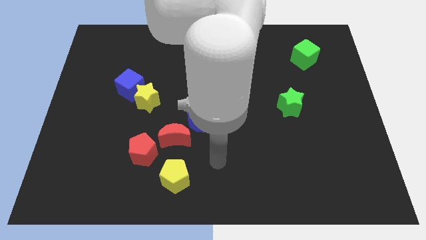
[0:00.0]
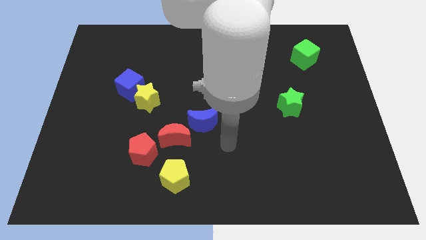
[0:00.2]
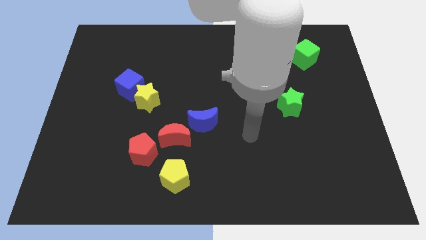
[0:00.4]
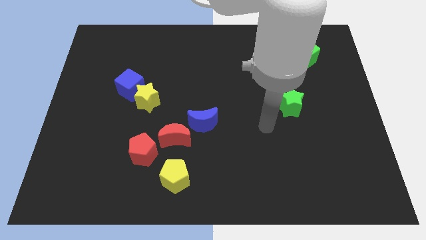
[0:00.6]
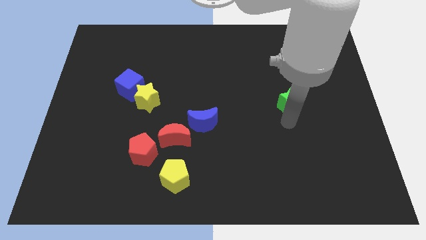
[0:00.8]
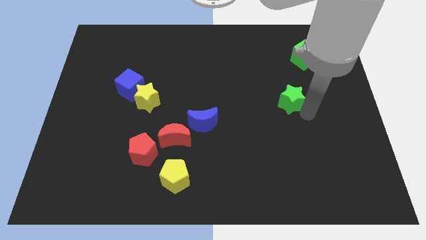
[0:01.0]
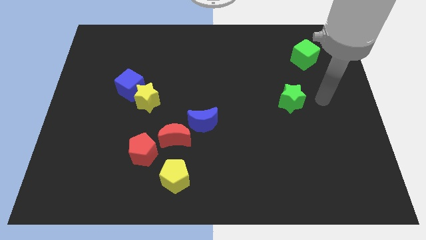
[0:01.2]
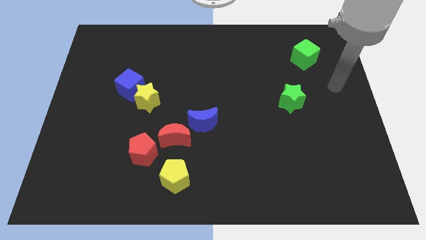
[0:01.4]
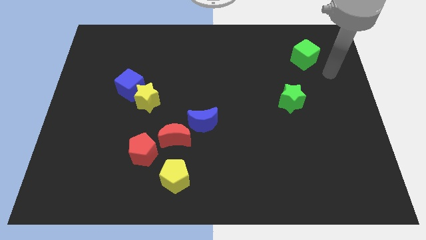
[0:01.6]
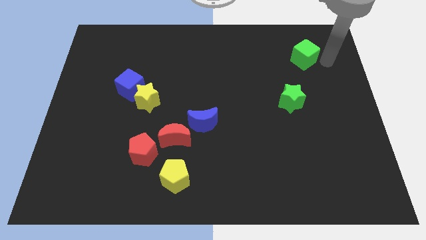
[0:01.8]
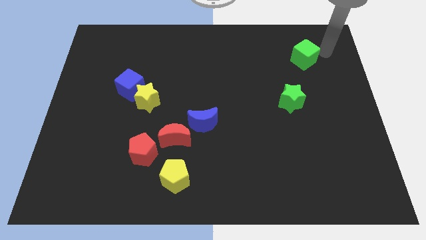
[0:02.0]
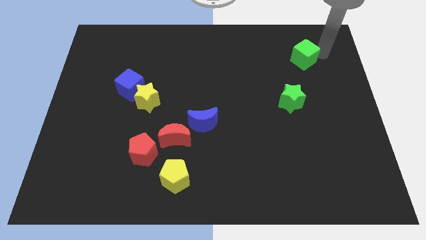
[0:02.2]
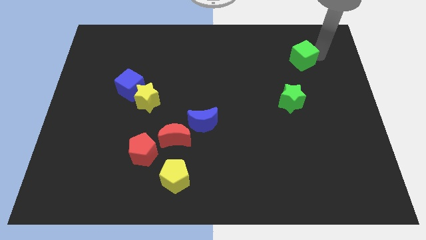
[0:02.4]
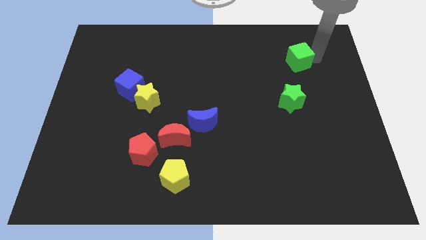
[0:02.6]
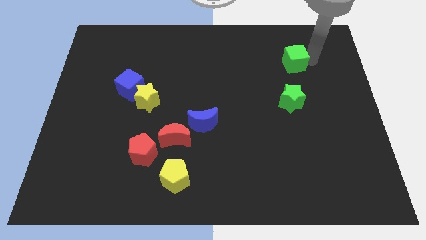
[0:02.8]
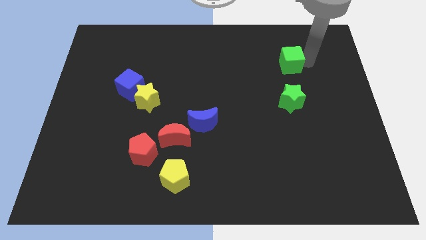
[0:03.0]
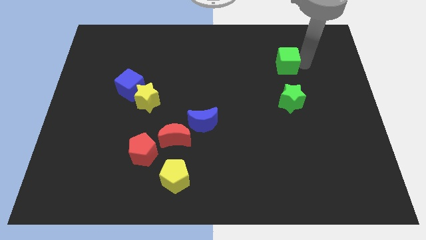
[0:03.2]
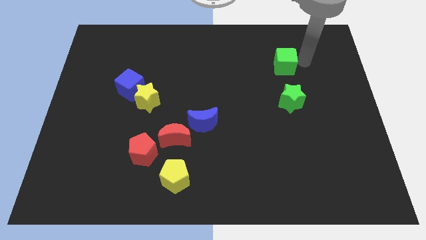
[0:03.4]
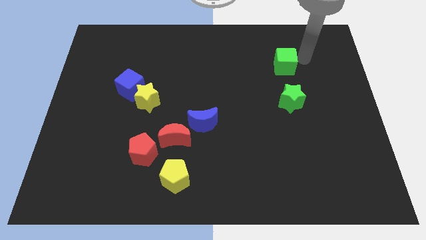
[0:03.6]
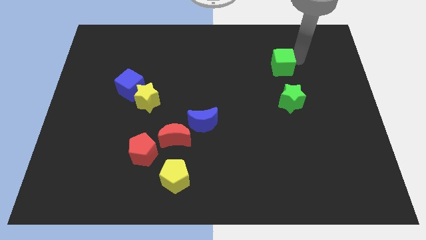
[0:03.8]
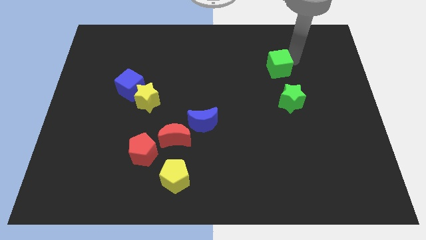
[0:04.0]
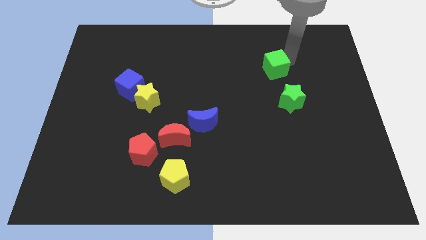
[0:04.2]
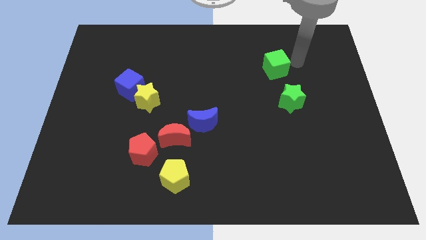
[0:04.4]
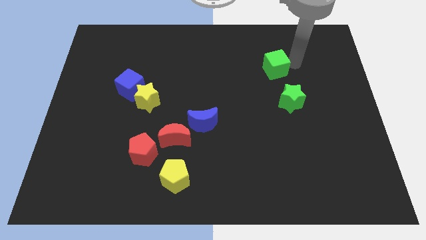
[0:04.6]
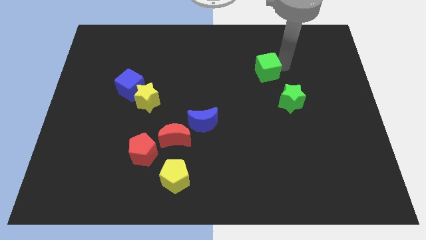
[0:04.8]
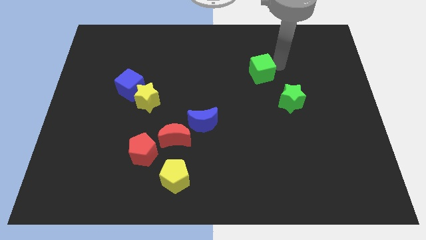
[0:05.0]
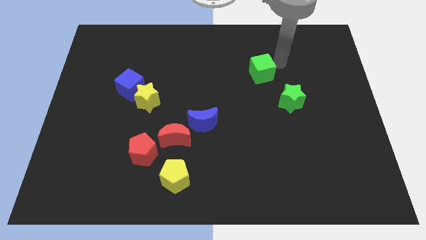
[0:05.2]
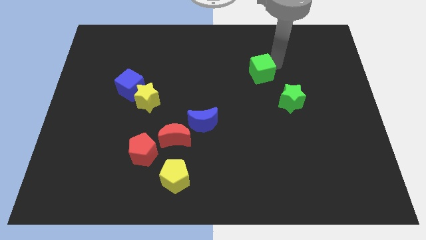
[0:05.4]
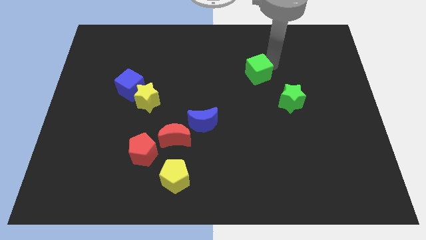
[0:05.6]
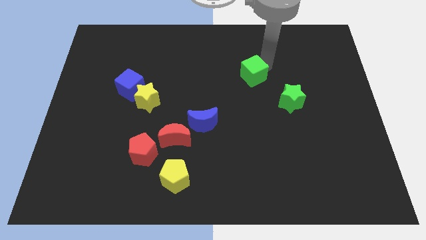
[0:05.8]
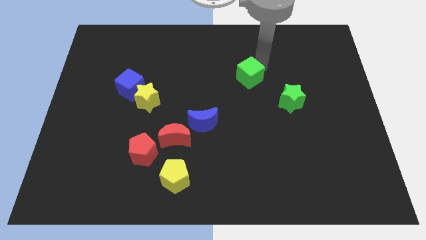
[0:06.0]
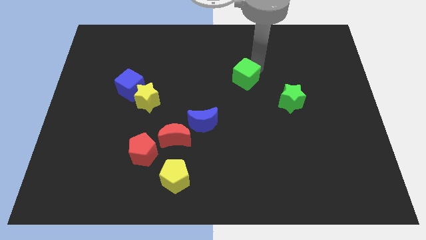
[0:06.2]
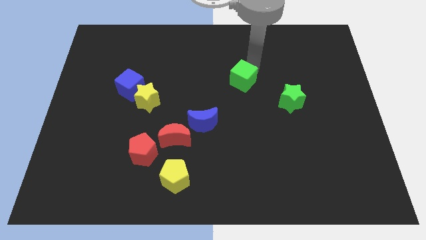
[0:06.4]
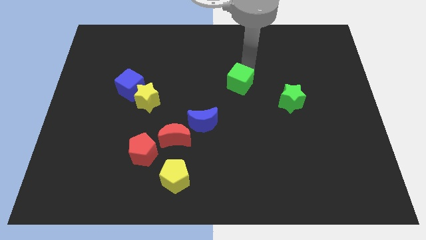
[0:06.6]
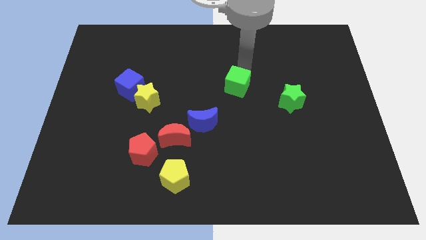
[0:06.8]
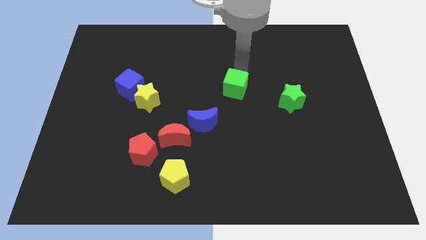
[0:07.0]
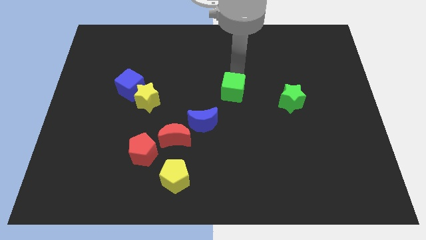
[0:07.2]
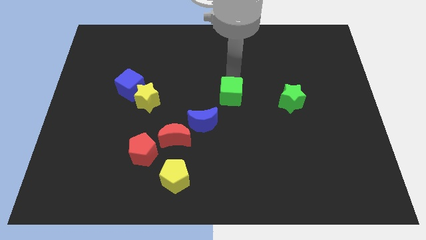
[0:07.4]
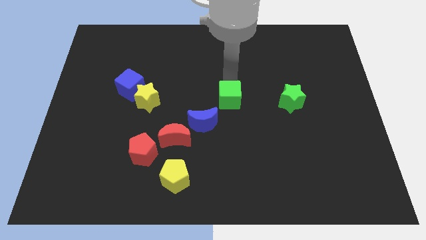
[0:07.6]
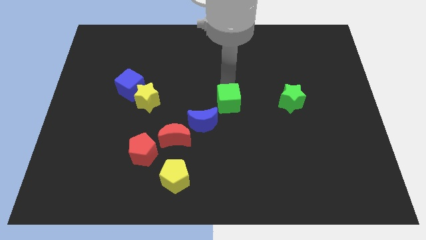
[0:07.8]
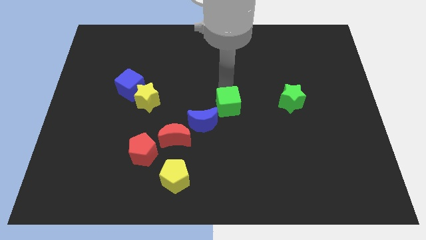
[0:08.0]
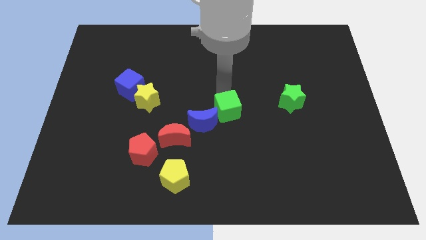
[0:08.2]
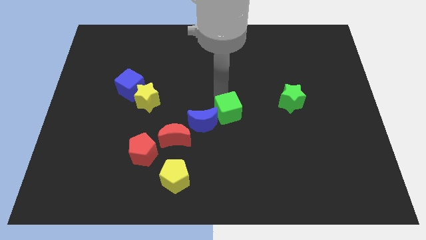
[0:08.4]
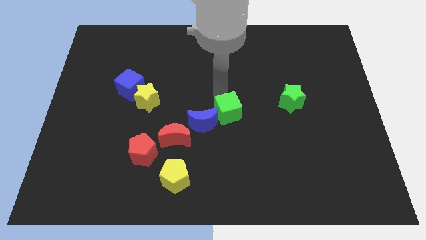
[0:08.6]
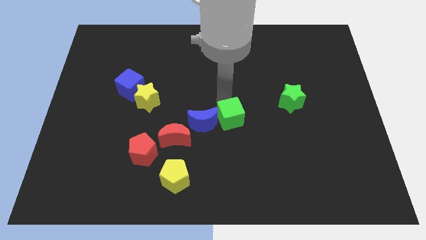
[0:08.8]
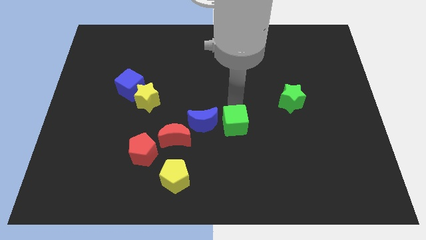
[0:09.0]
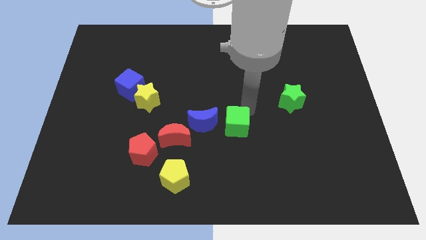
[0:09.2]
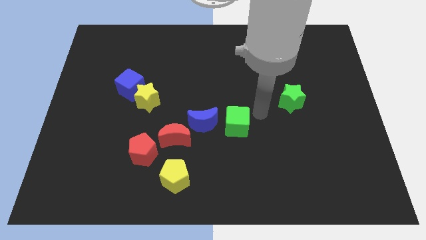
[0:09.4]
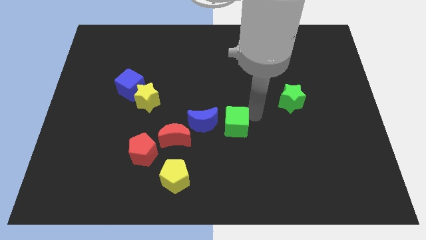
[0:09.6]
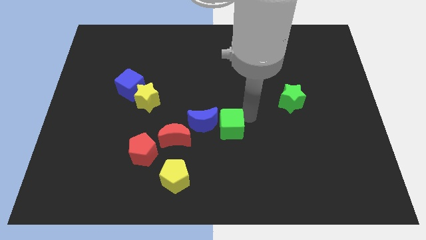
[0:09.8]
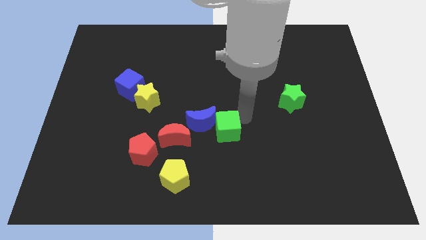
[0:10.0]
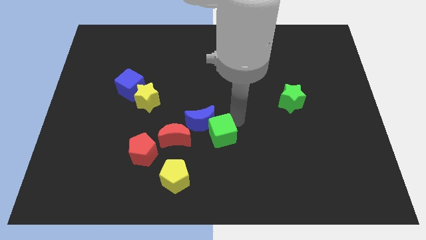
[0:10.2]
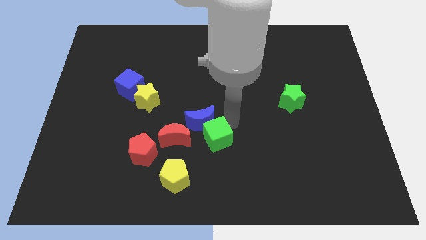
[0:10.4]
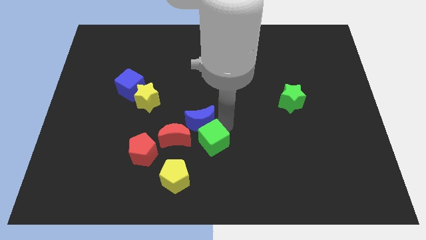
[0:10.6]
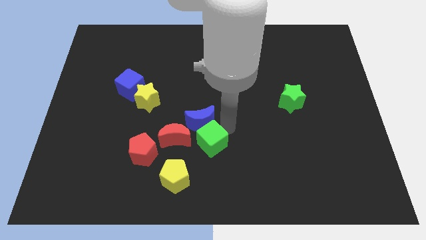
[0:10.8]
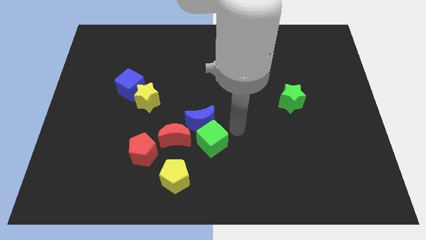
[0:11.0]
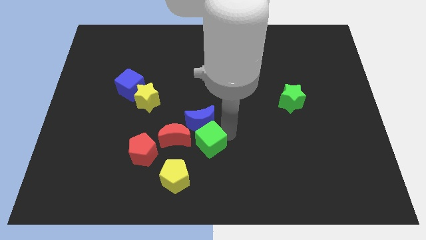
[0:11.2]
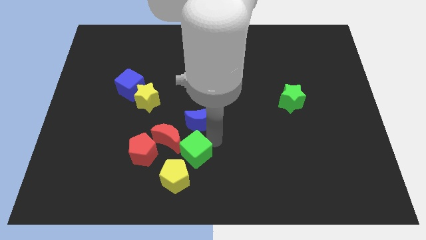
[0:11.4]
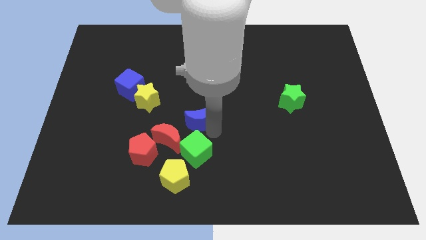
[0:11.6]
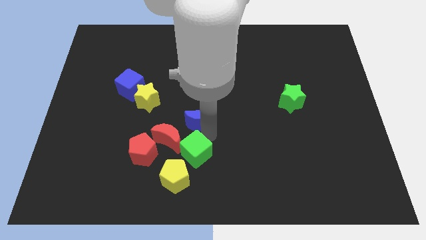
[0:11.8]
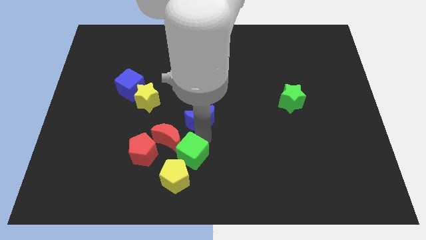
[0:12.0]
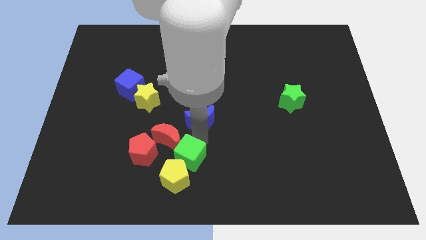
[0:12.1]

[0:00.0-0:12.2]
move the green cube close to the yellow pentagon
